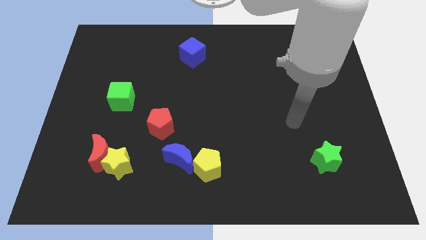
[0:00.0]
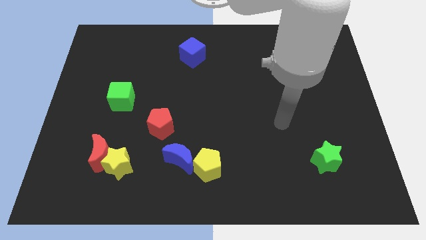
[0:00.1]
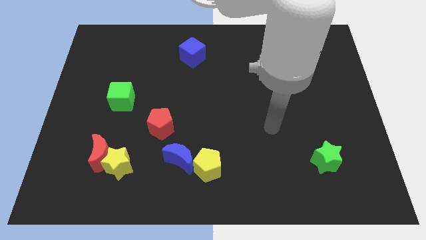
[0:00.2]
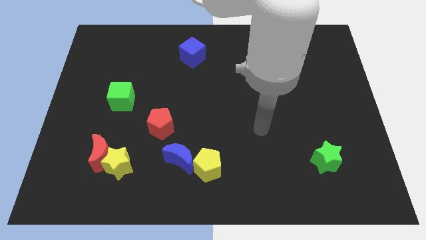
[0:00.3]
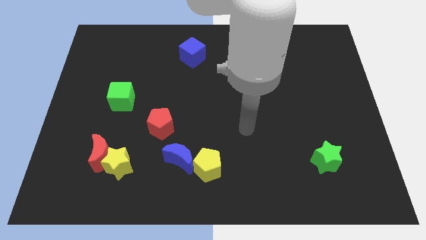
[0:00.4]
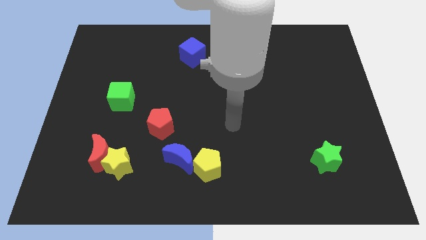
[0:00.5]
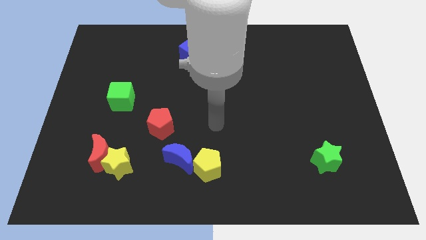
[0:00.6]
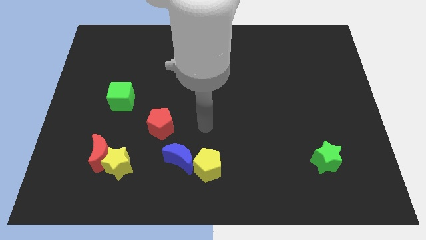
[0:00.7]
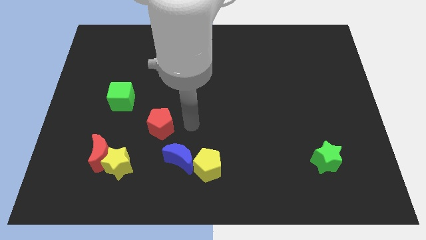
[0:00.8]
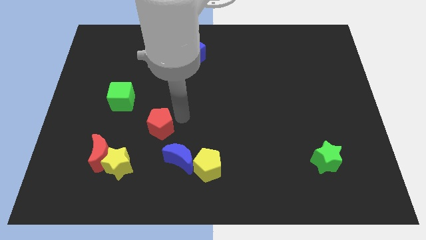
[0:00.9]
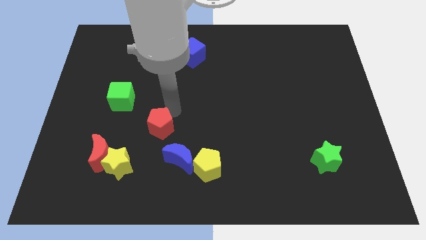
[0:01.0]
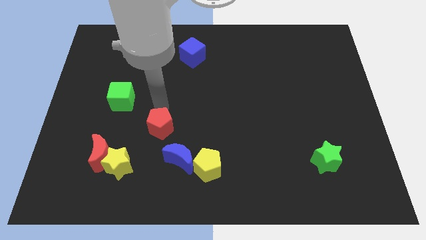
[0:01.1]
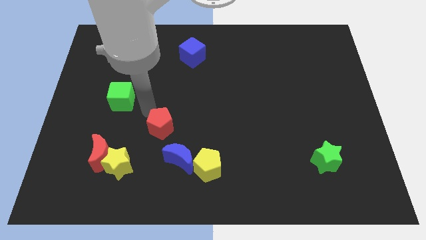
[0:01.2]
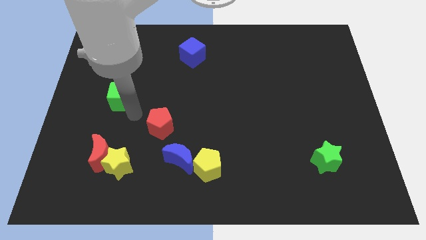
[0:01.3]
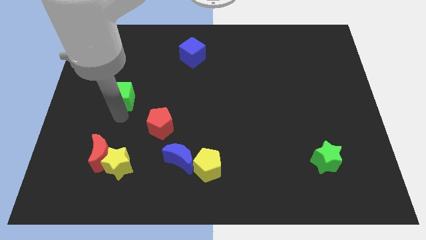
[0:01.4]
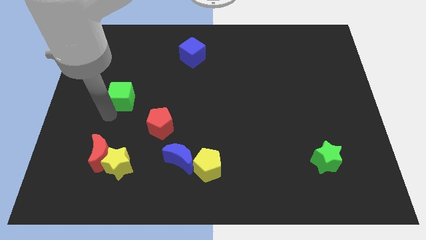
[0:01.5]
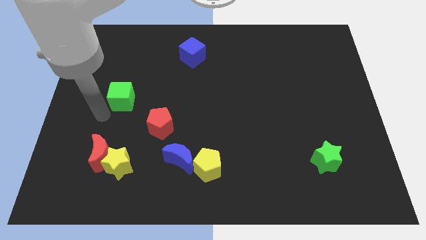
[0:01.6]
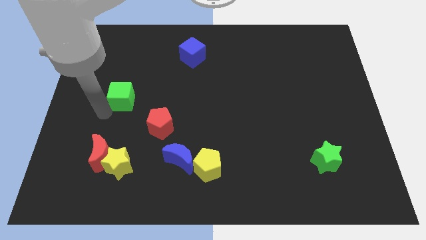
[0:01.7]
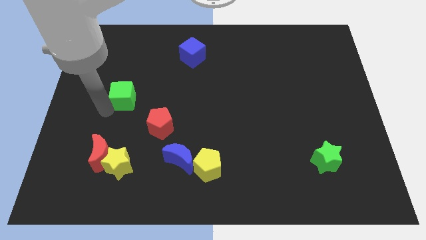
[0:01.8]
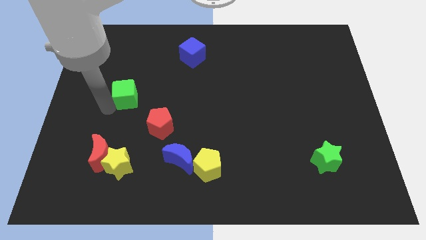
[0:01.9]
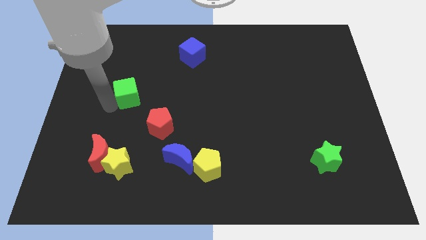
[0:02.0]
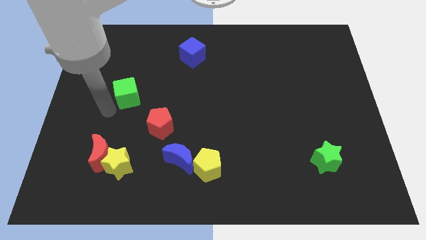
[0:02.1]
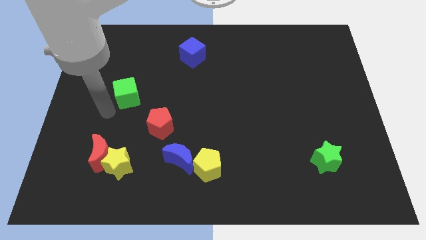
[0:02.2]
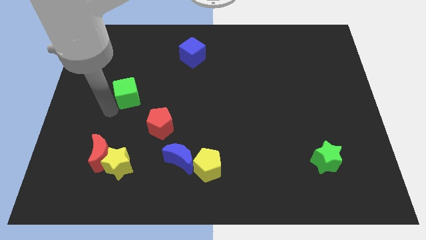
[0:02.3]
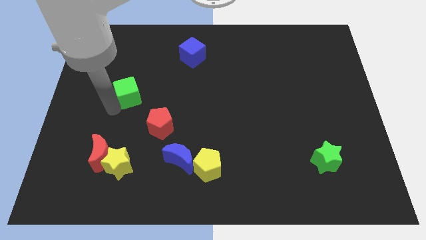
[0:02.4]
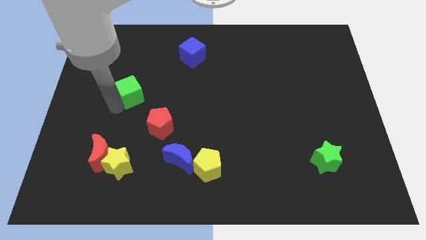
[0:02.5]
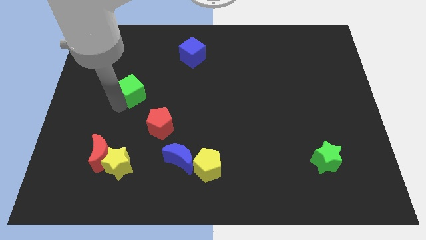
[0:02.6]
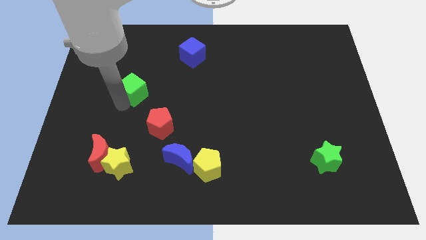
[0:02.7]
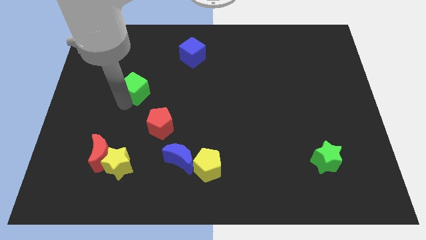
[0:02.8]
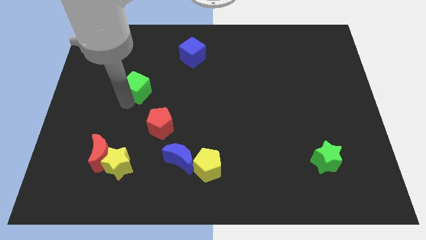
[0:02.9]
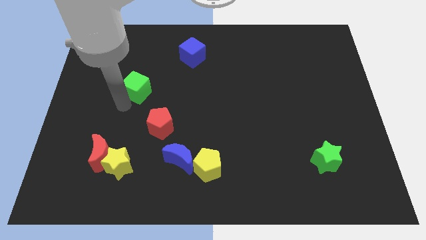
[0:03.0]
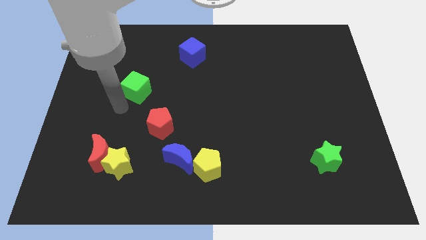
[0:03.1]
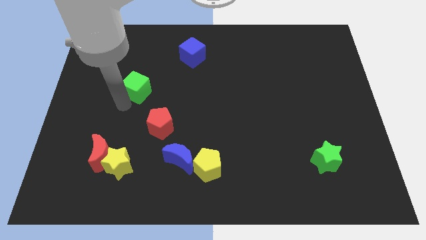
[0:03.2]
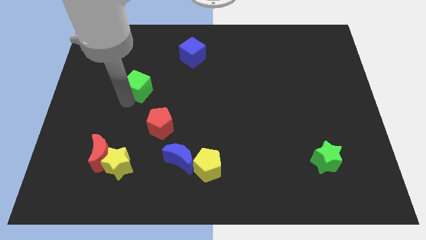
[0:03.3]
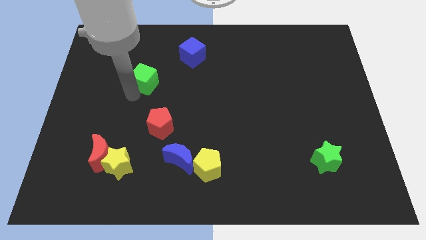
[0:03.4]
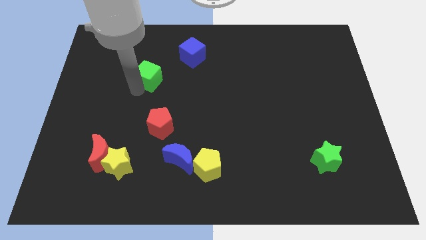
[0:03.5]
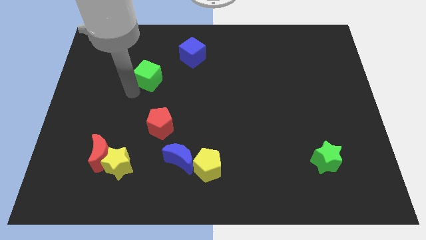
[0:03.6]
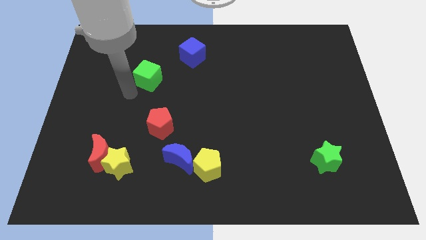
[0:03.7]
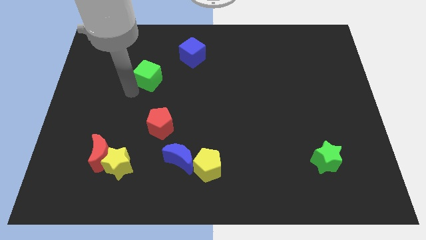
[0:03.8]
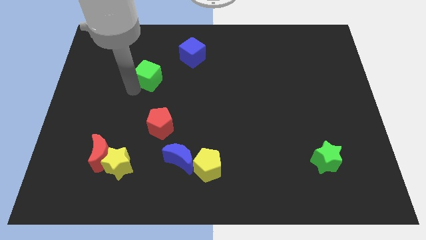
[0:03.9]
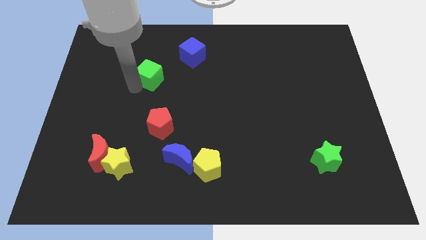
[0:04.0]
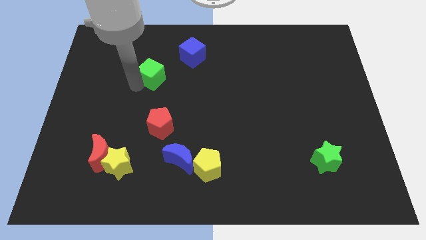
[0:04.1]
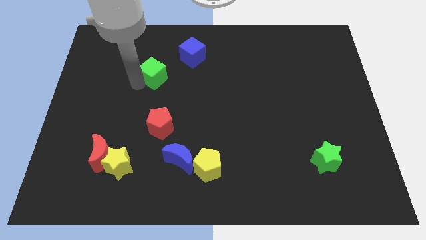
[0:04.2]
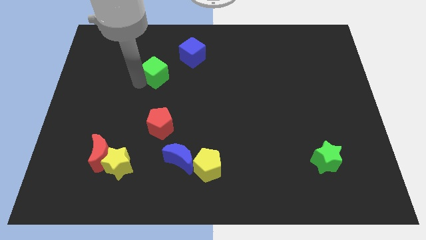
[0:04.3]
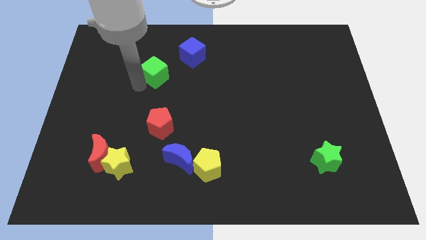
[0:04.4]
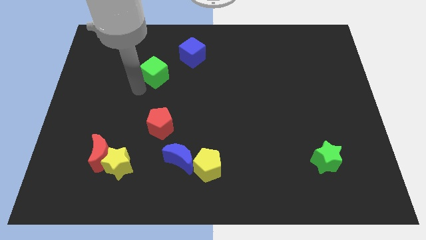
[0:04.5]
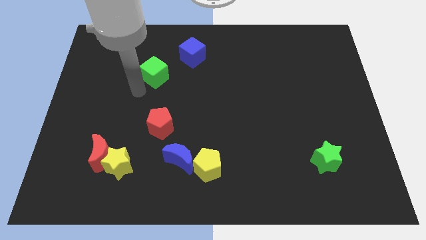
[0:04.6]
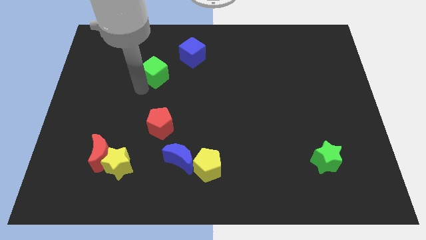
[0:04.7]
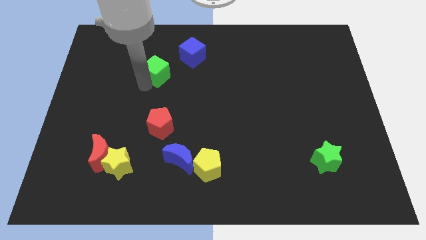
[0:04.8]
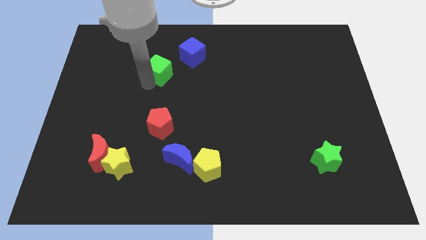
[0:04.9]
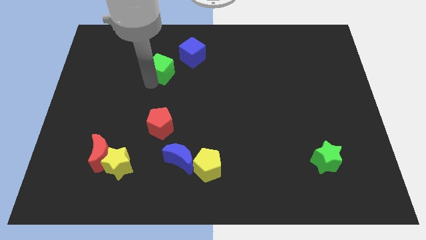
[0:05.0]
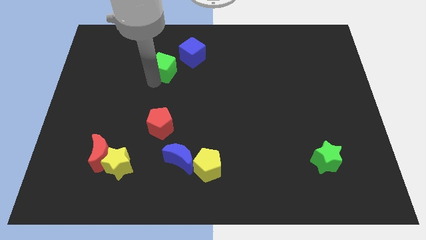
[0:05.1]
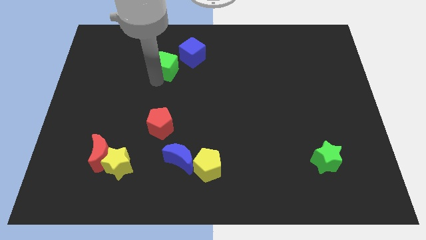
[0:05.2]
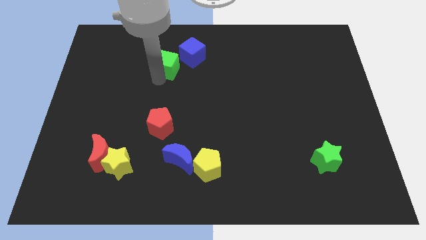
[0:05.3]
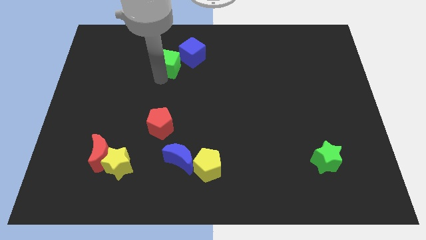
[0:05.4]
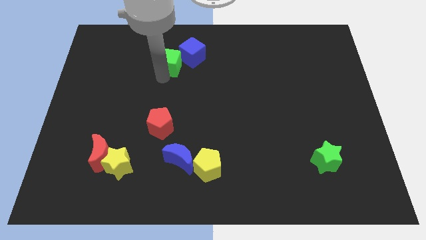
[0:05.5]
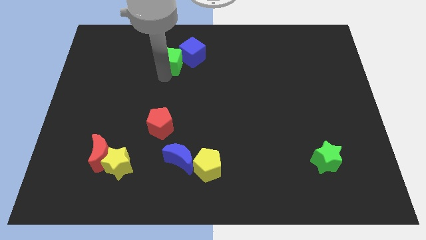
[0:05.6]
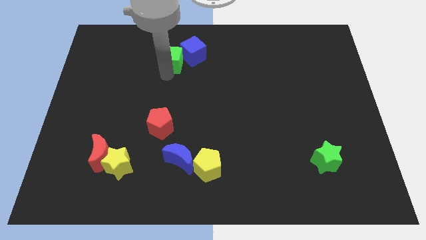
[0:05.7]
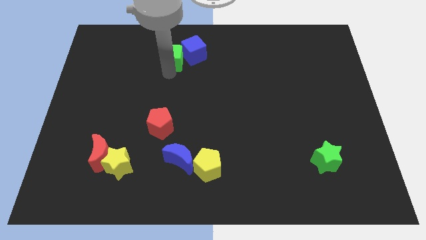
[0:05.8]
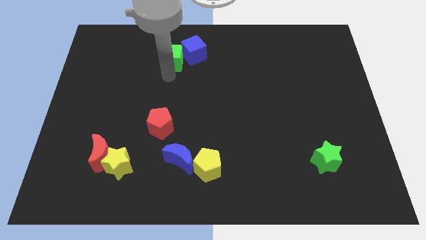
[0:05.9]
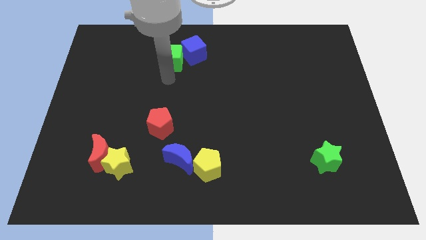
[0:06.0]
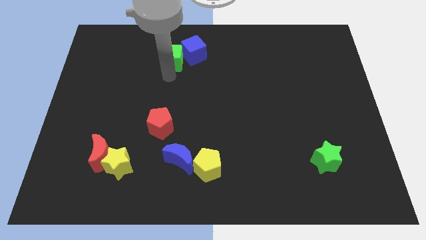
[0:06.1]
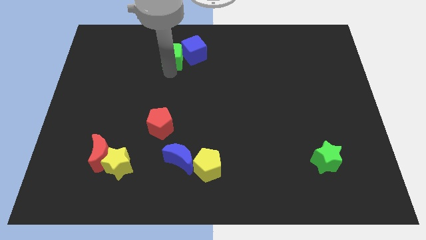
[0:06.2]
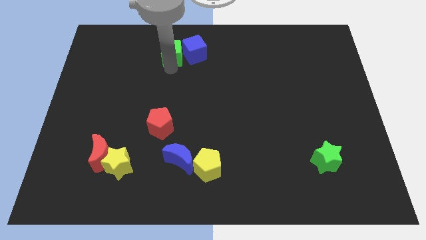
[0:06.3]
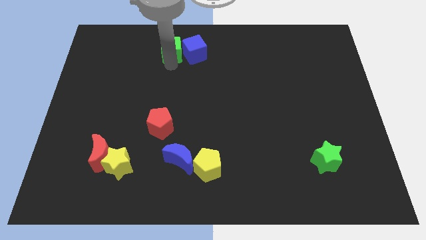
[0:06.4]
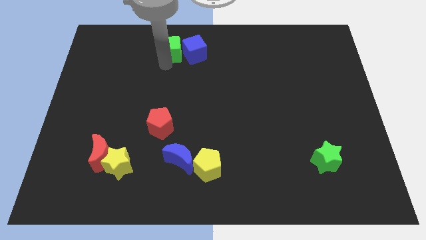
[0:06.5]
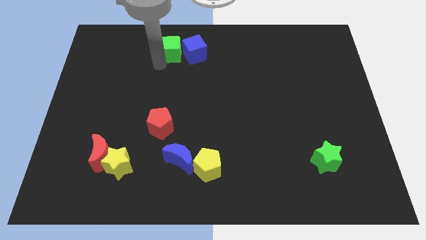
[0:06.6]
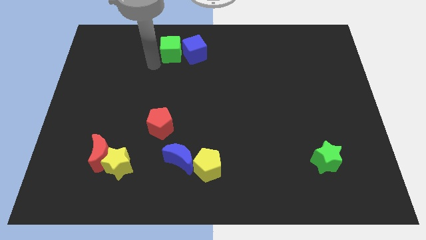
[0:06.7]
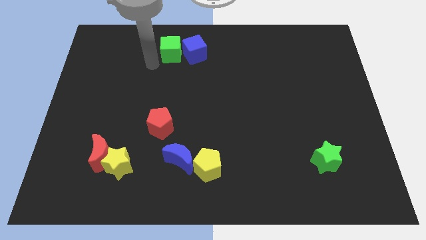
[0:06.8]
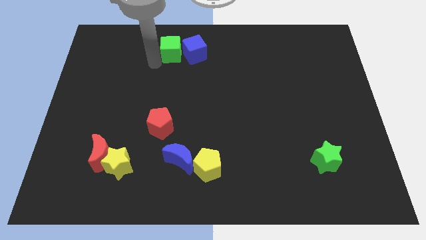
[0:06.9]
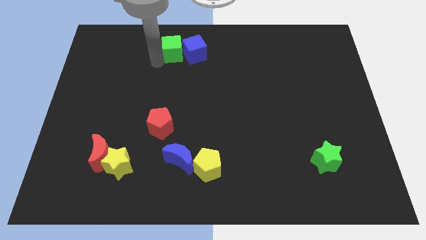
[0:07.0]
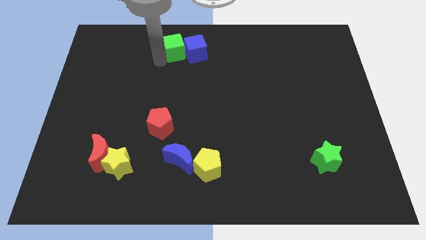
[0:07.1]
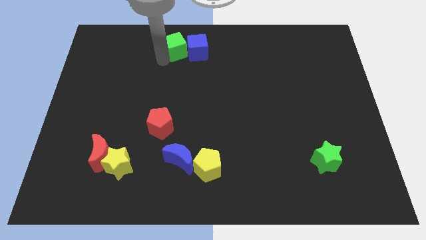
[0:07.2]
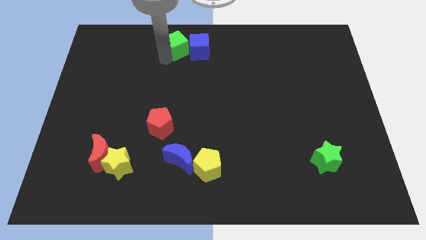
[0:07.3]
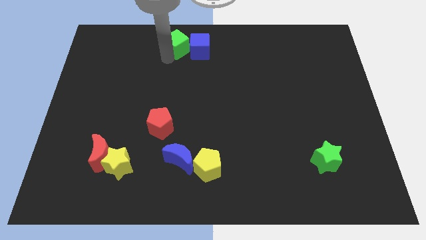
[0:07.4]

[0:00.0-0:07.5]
push the green cube to the towards your base
